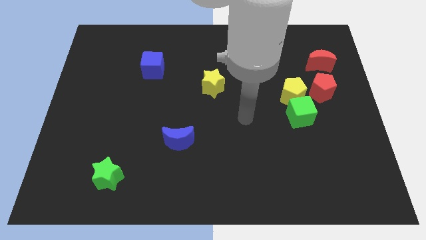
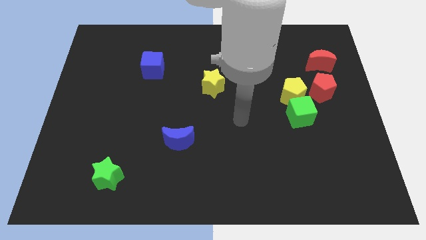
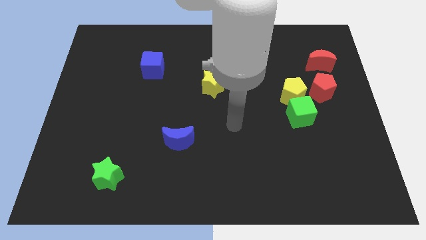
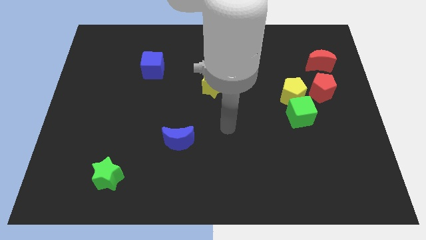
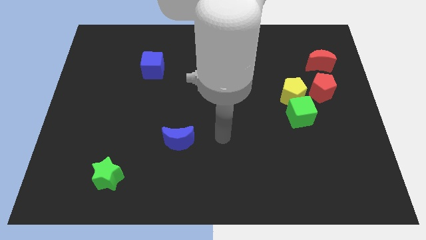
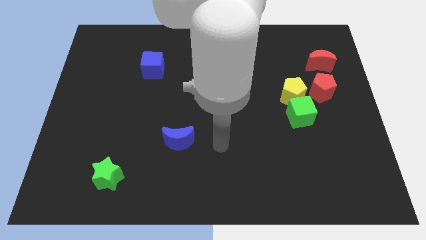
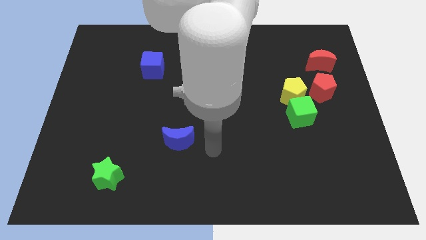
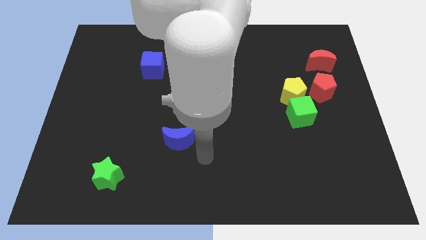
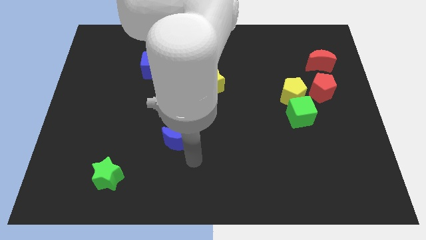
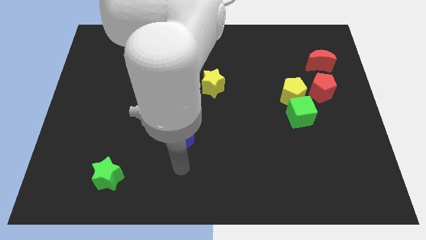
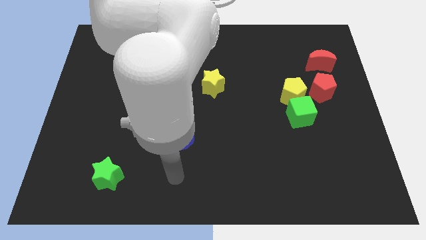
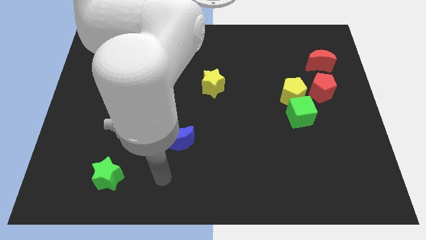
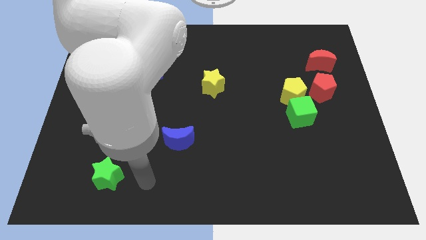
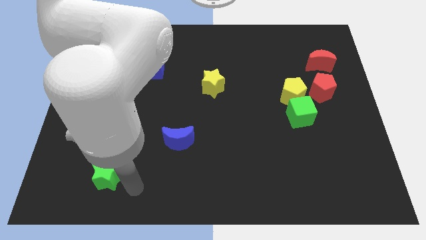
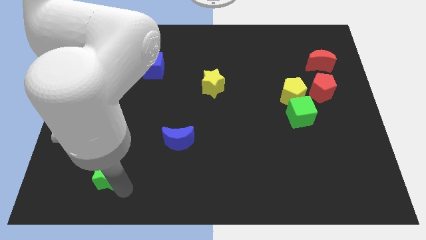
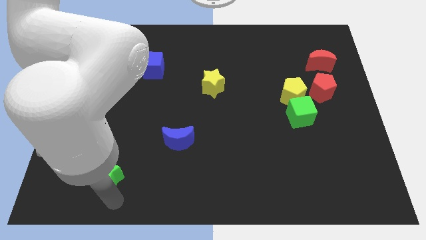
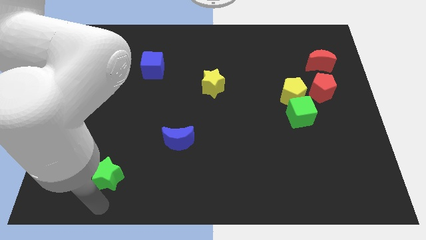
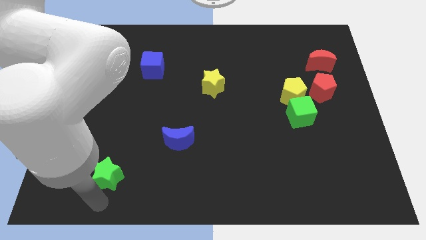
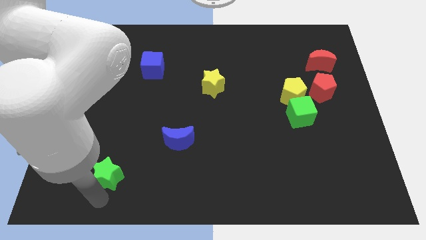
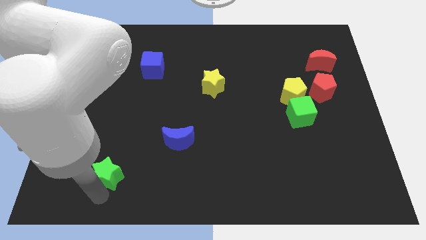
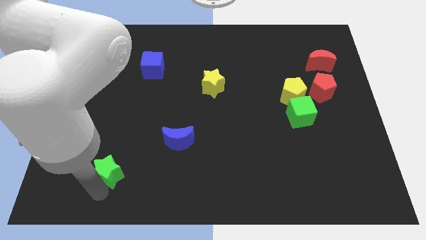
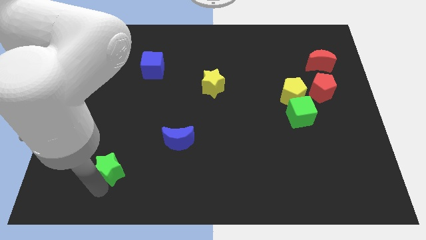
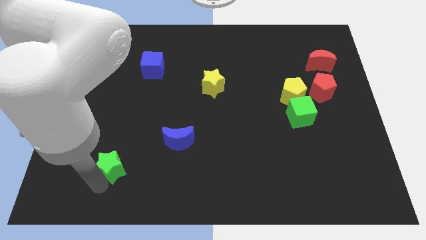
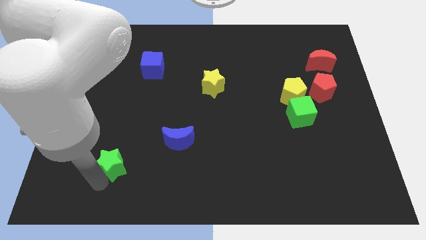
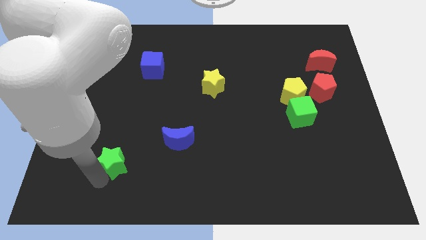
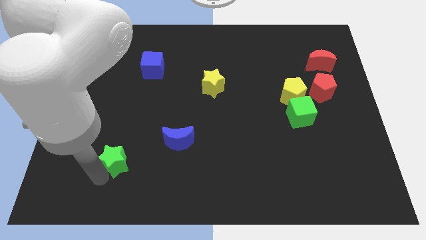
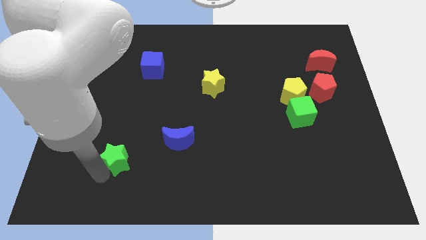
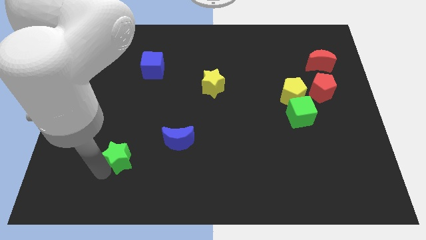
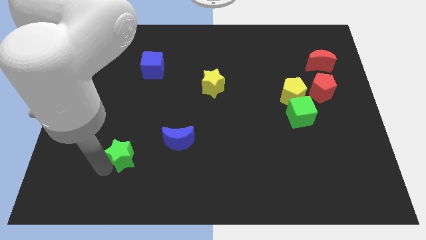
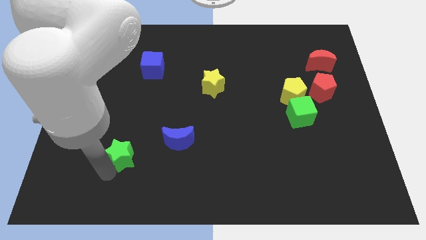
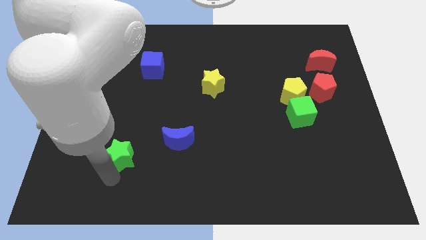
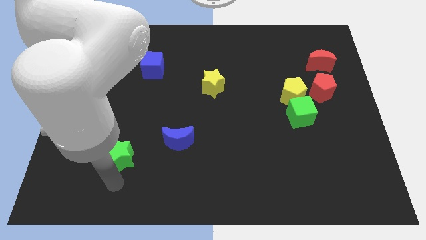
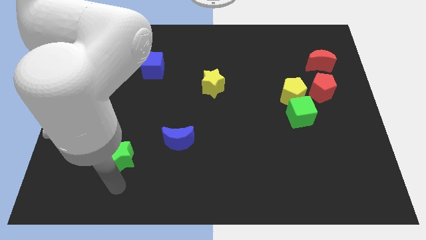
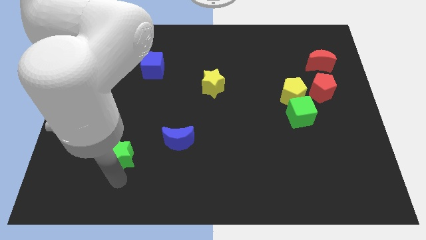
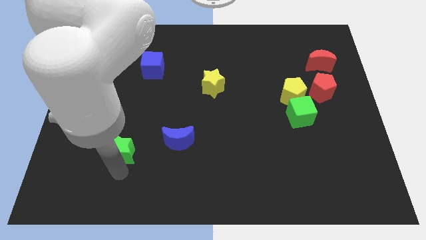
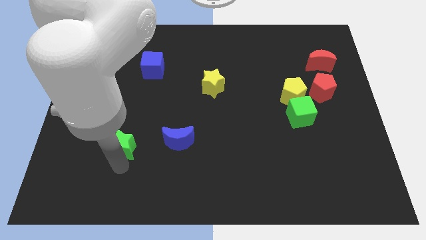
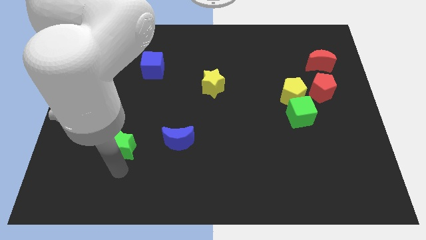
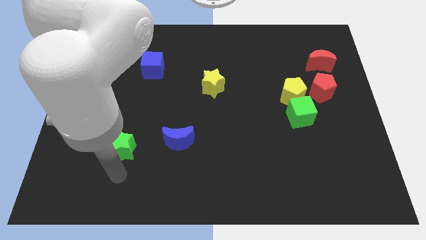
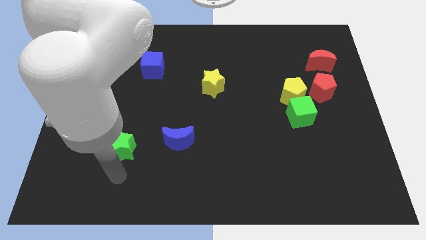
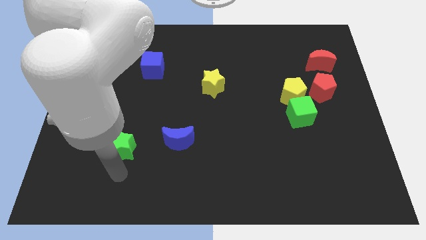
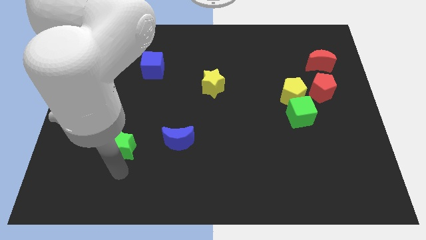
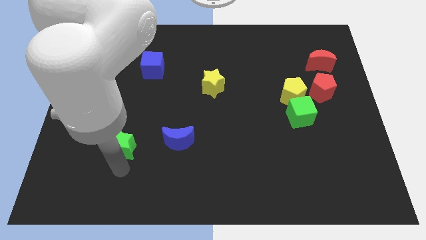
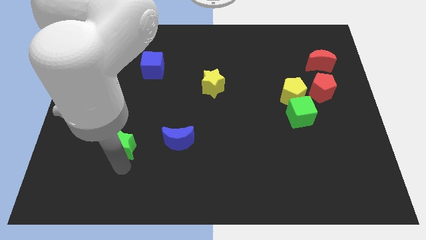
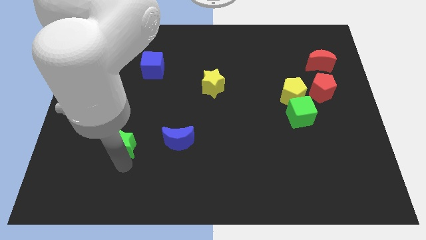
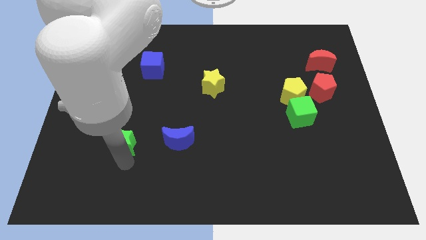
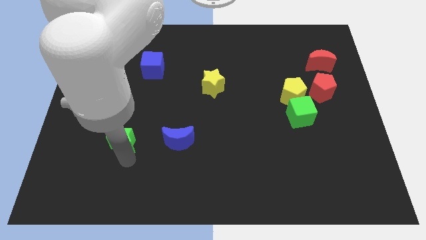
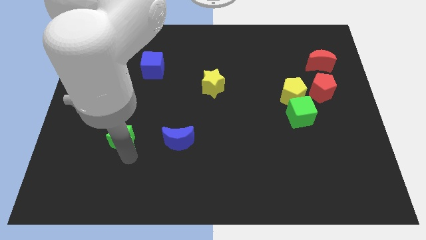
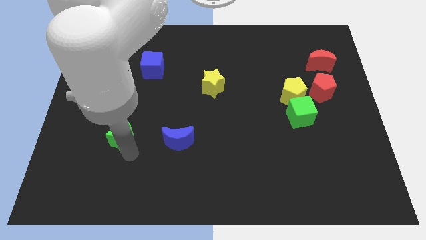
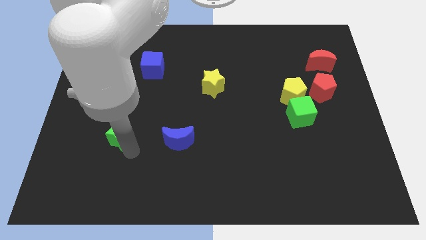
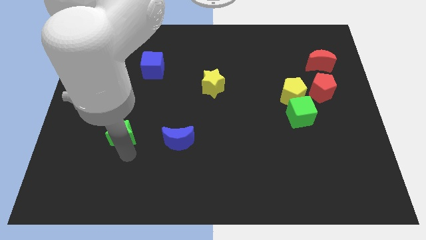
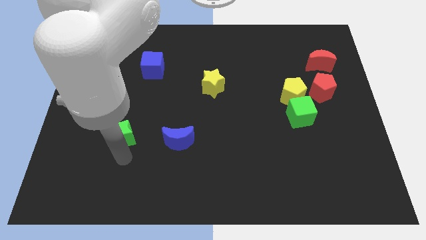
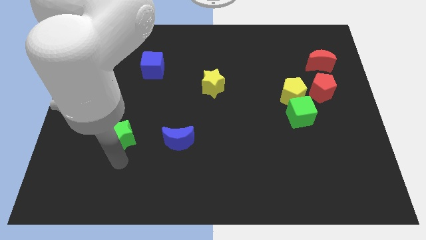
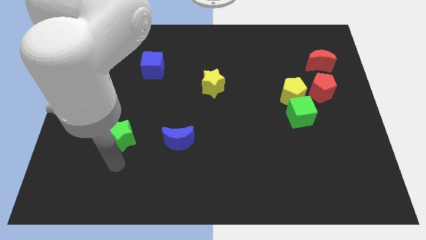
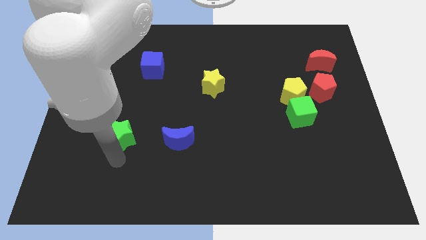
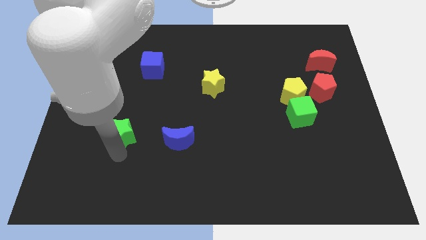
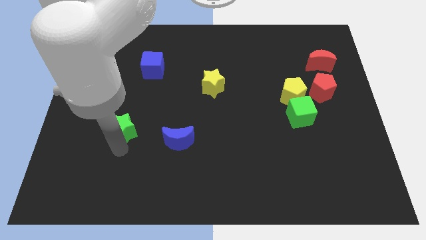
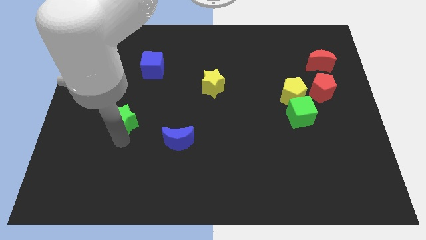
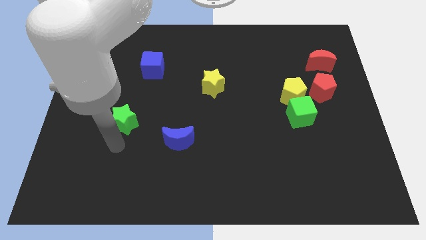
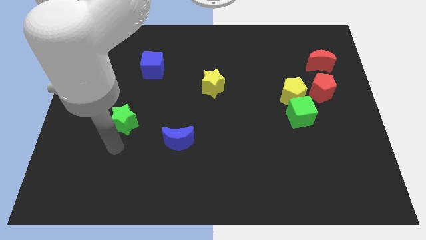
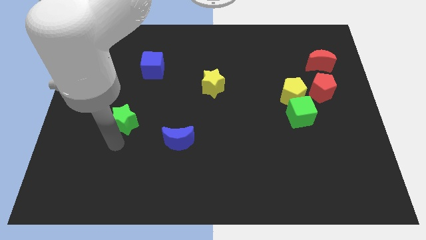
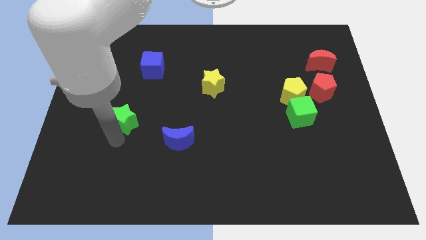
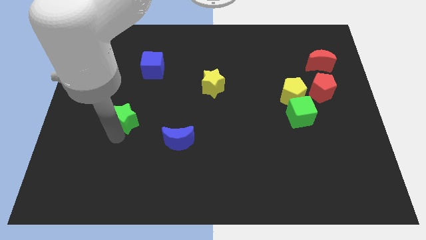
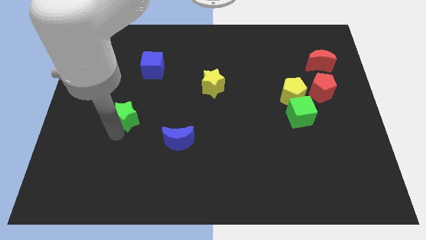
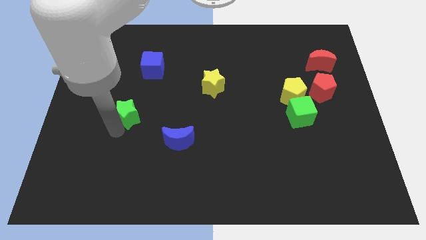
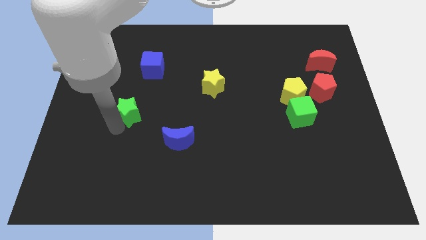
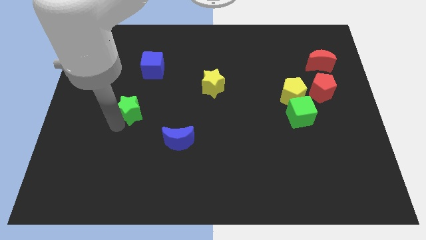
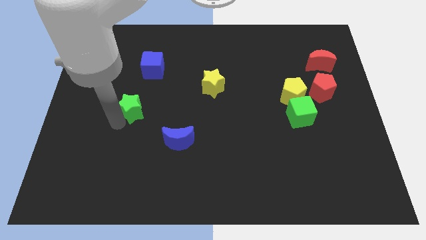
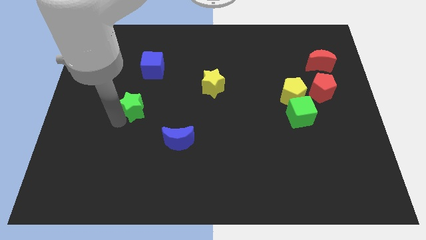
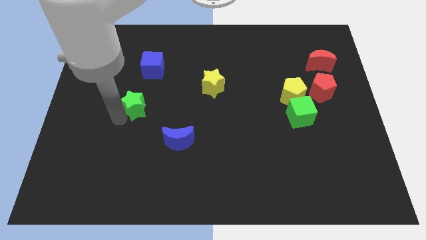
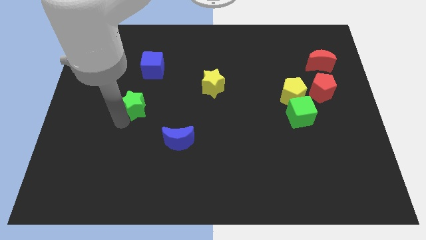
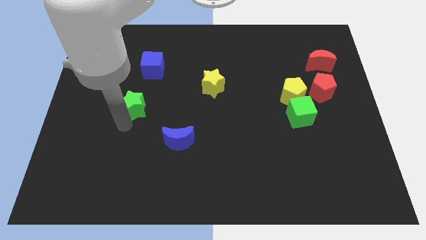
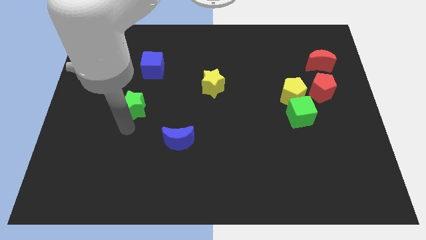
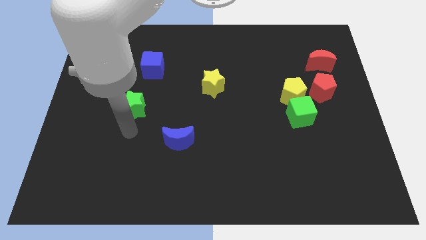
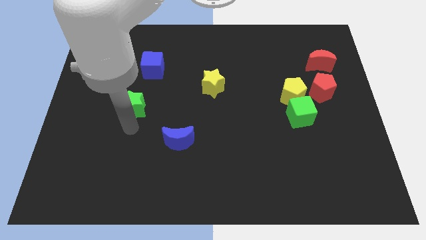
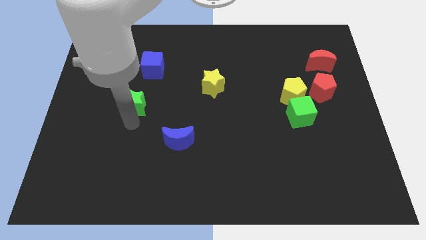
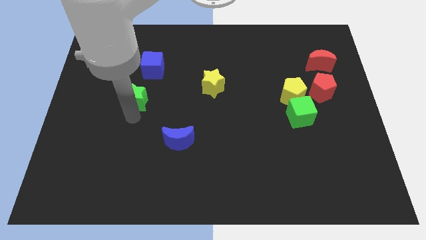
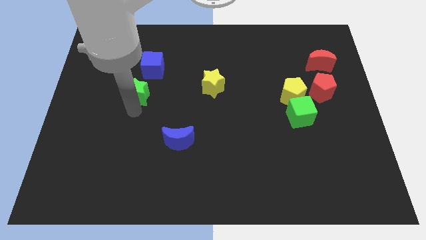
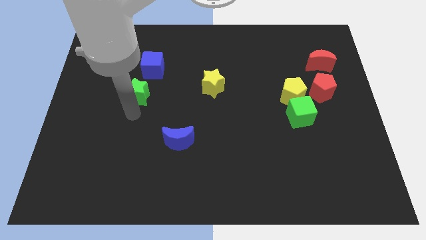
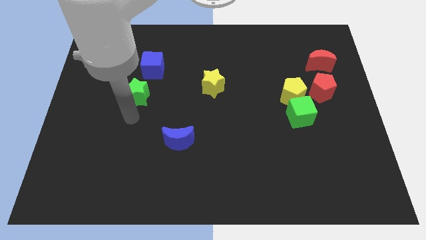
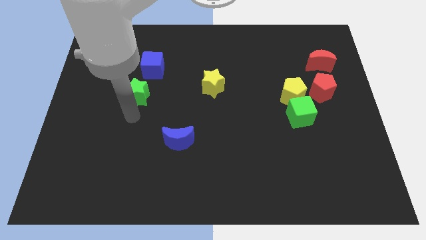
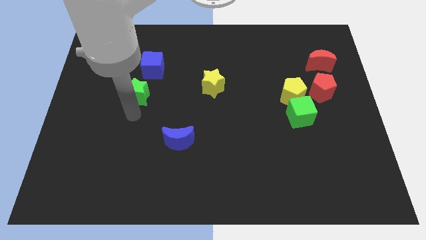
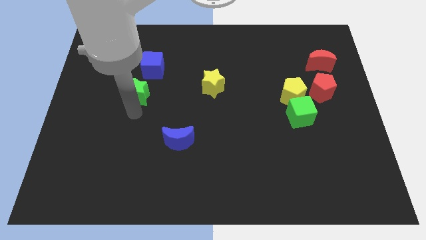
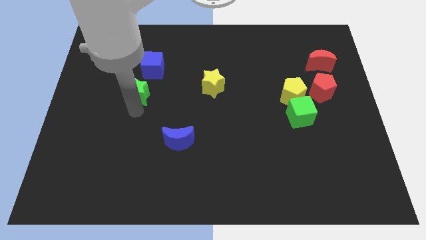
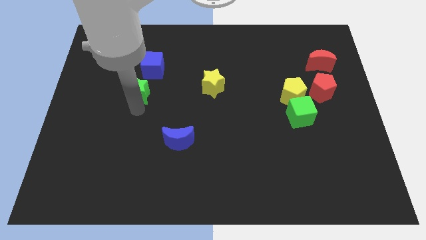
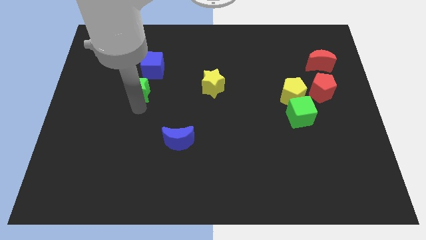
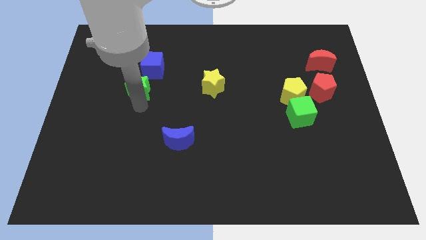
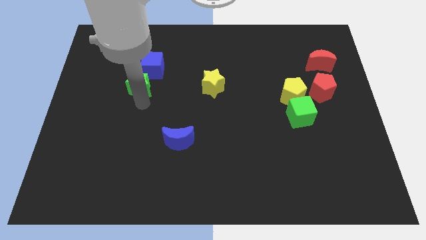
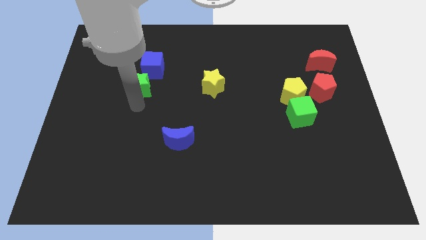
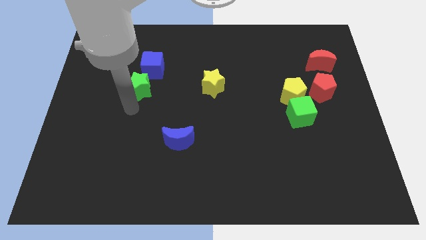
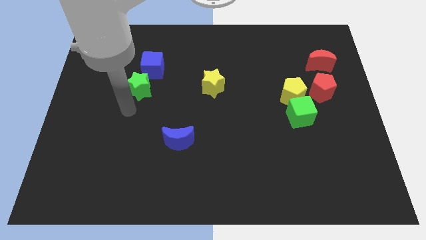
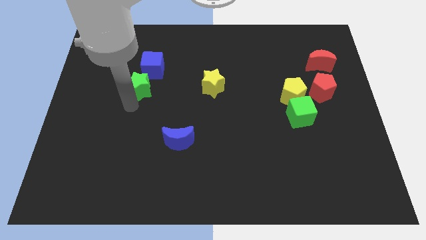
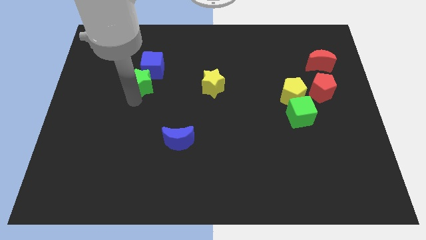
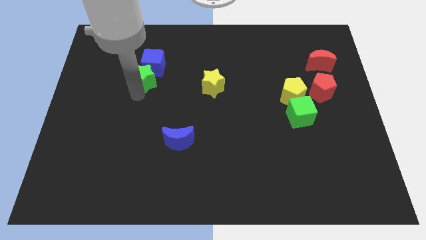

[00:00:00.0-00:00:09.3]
move the green star to the blue cube
